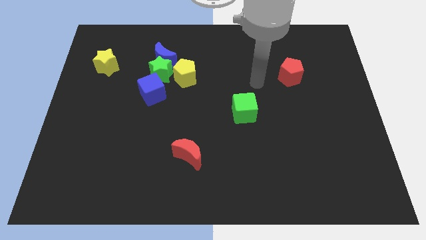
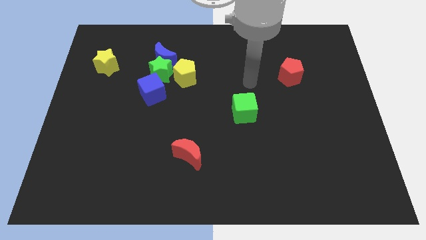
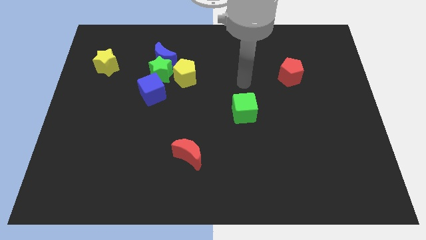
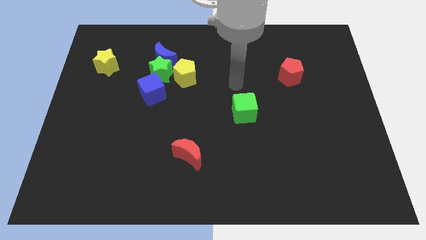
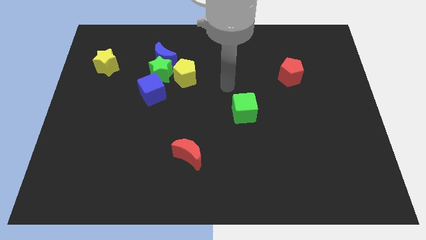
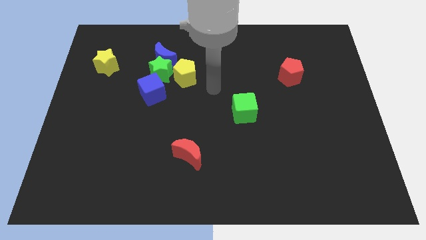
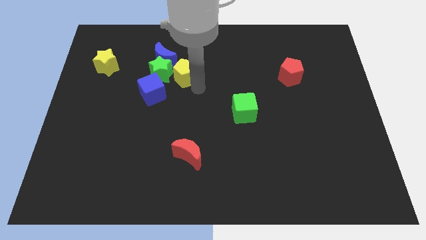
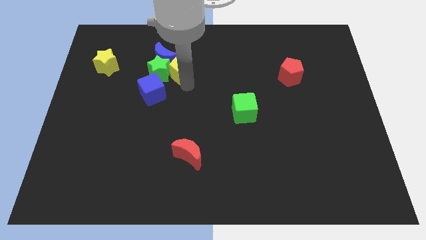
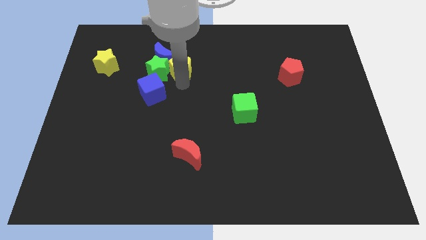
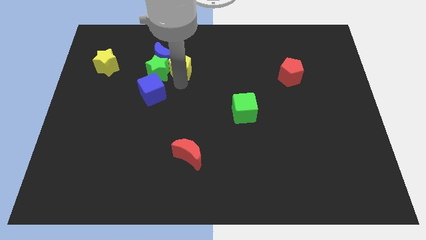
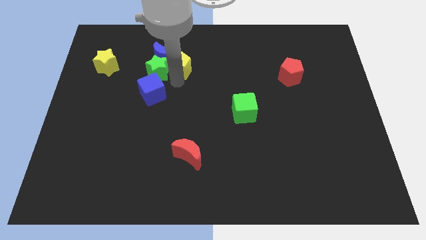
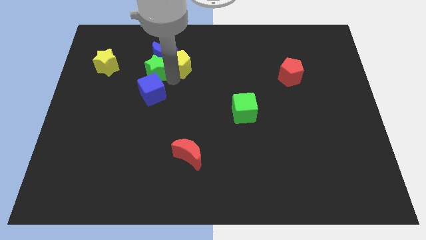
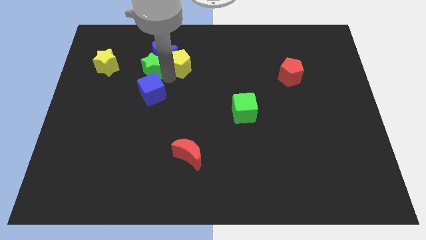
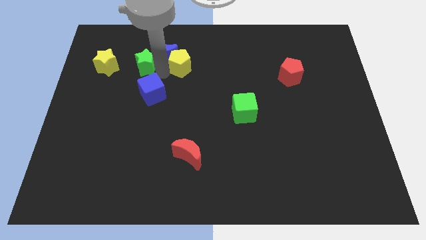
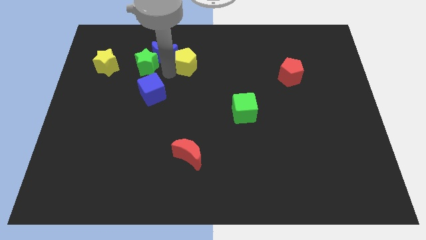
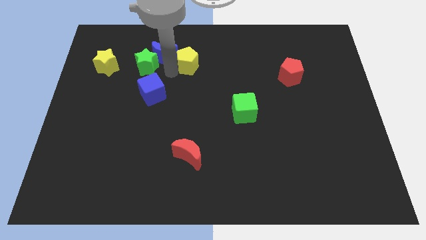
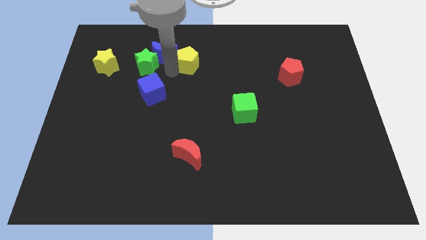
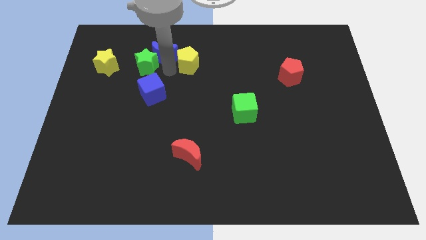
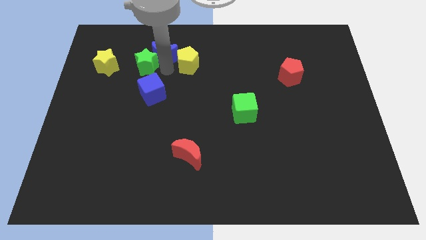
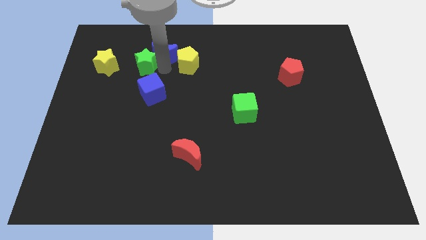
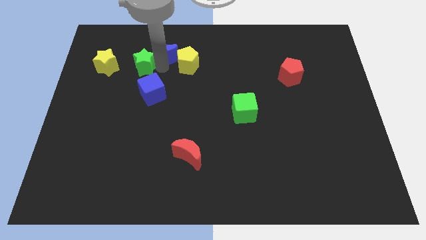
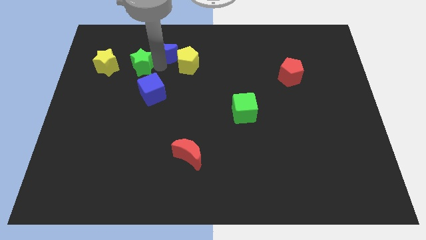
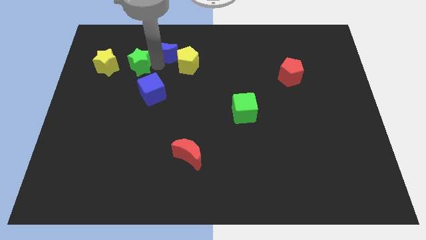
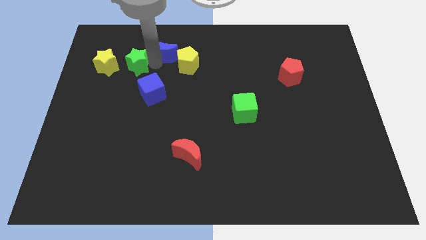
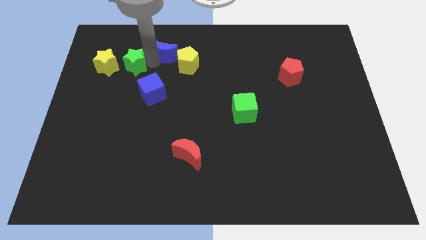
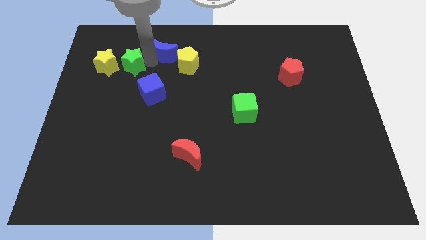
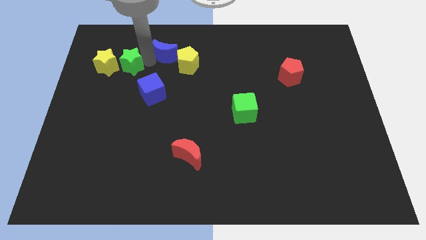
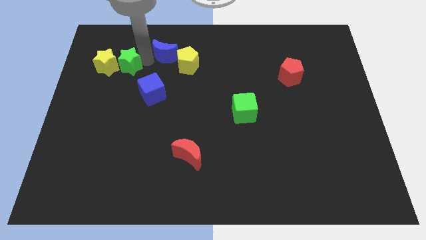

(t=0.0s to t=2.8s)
move the green star away from the blue moon, yellow pentagon, and blue cube

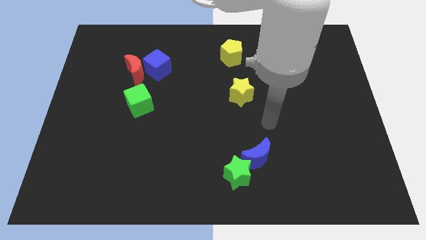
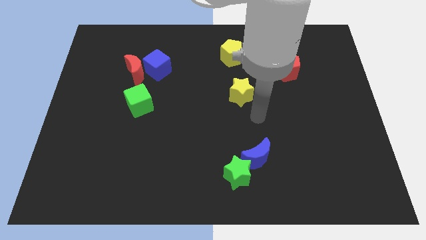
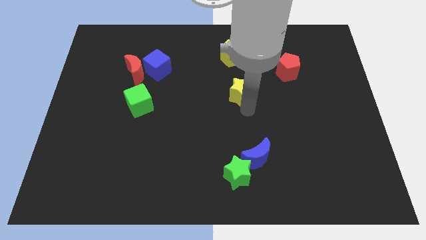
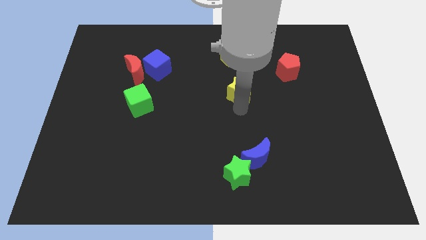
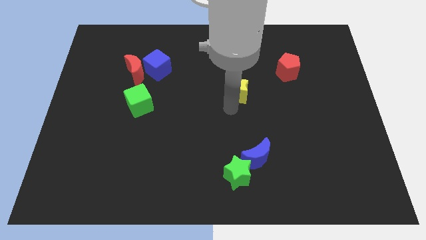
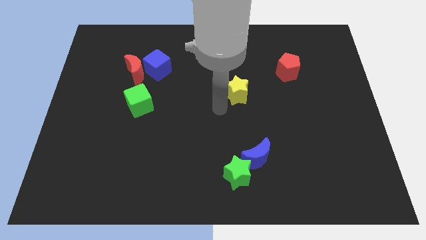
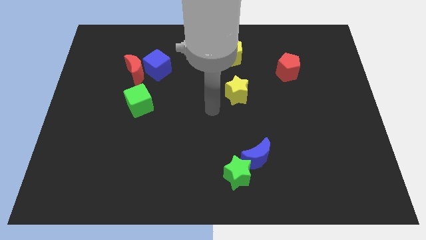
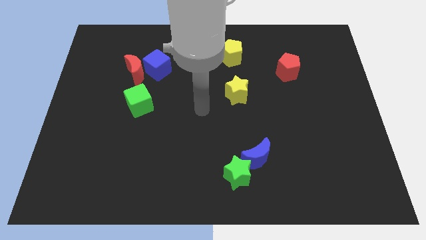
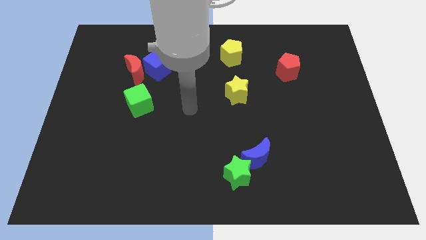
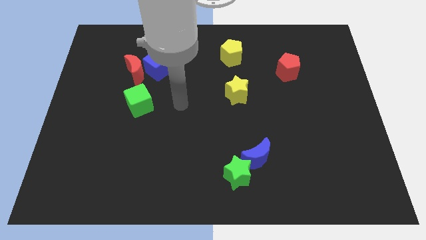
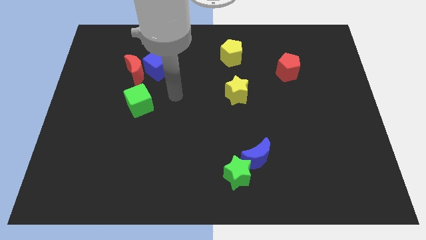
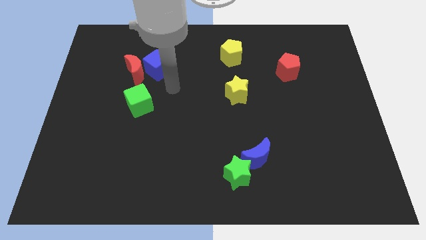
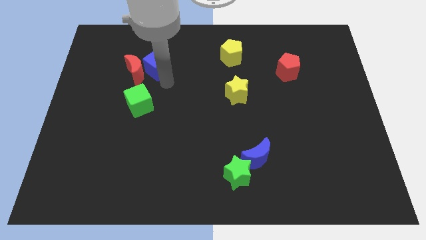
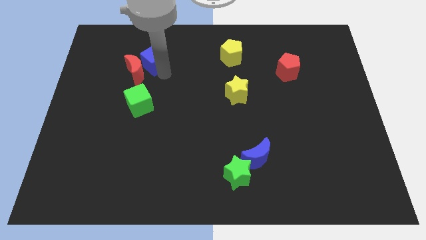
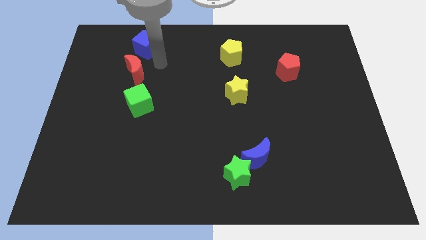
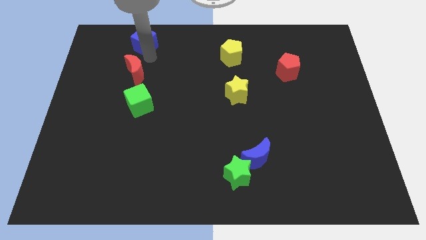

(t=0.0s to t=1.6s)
pull the red moon apart from the blue cube

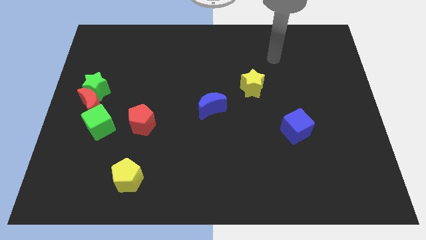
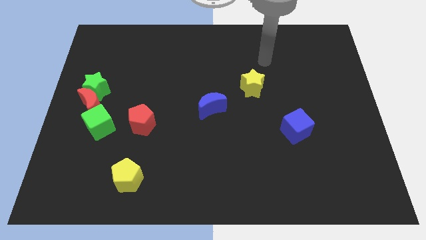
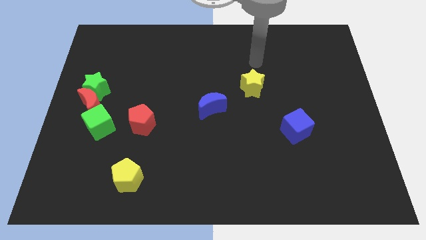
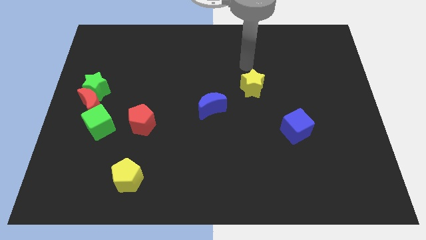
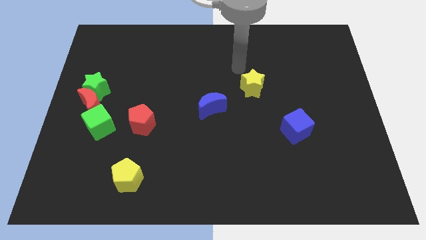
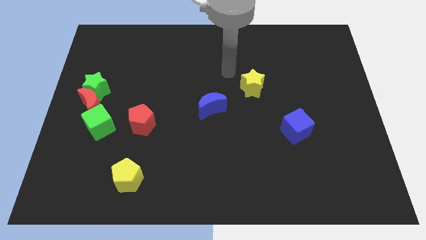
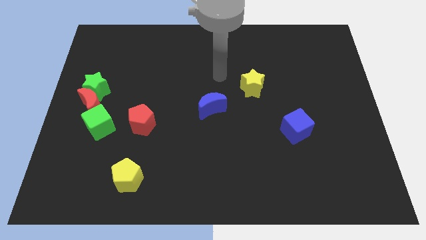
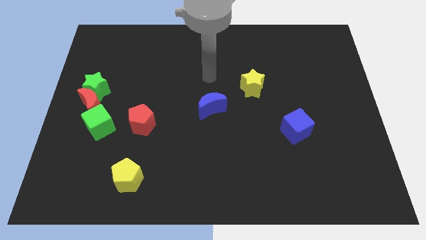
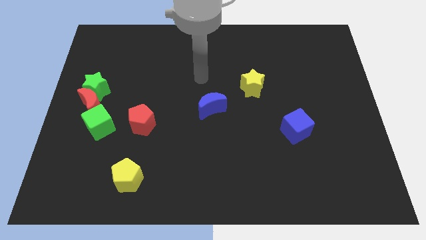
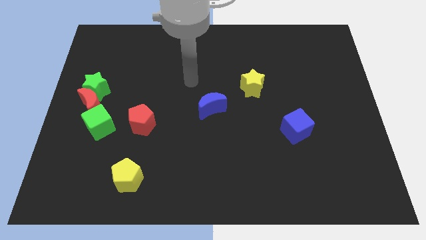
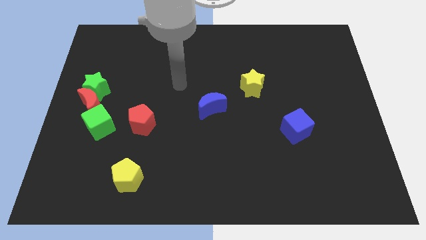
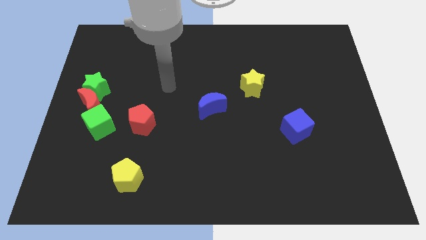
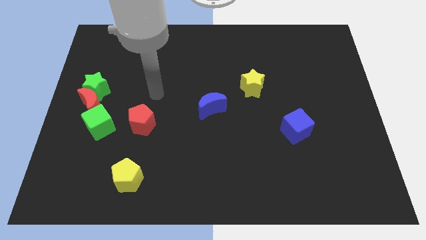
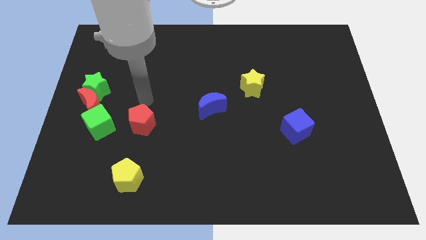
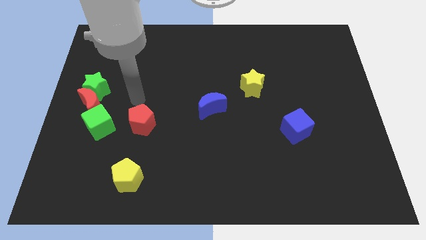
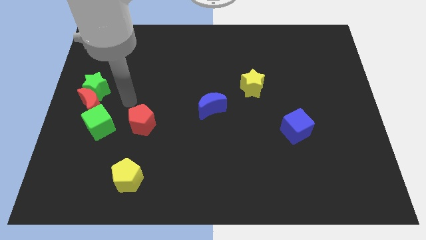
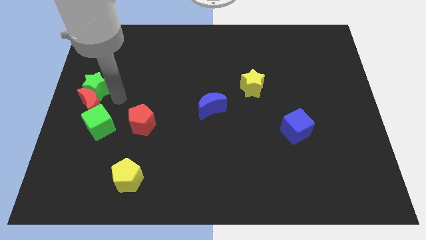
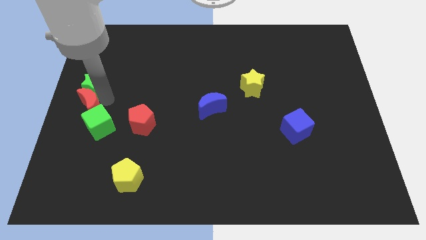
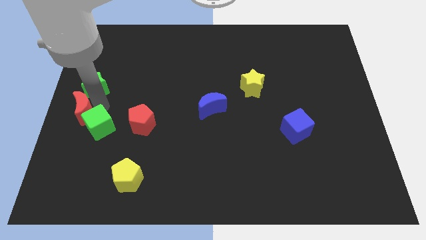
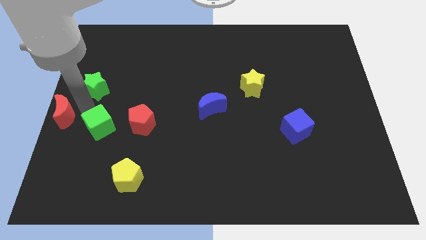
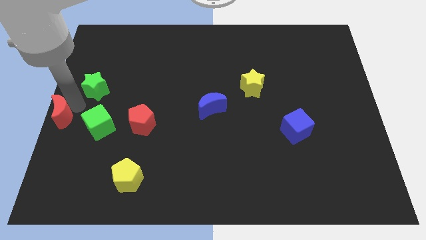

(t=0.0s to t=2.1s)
separate the green star from the red moon

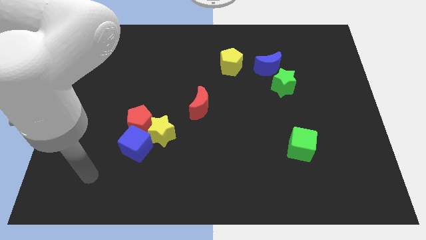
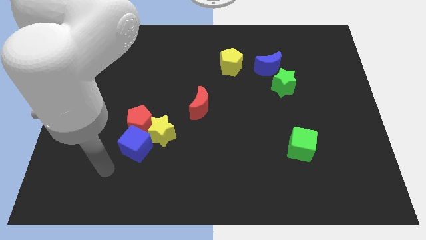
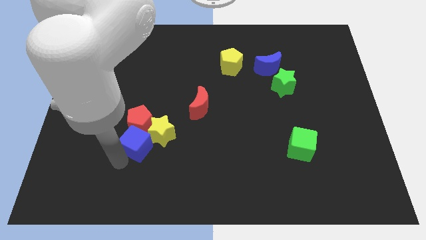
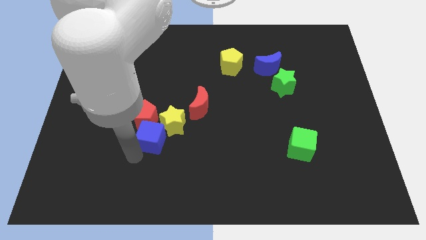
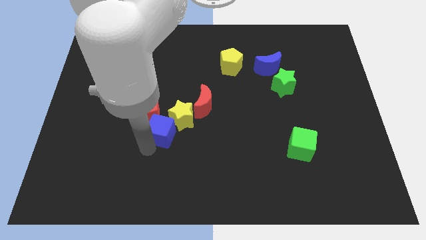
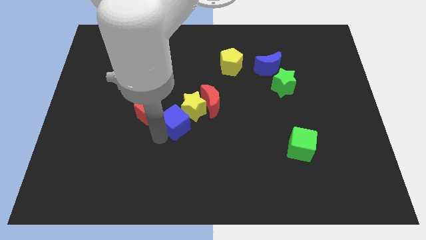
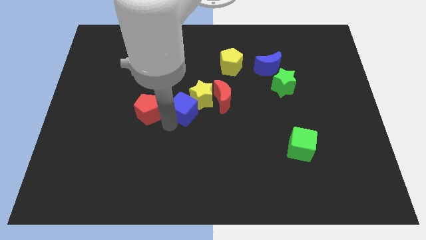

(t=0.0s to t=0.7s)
separate the red pentagon from the blue cube and yellow star

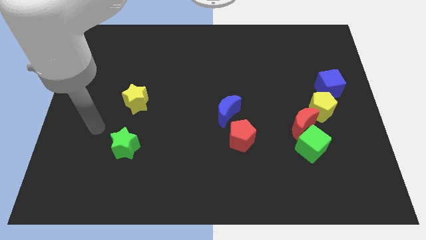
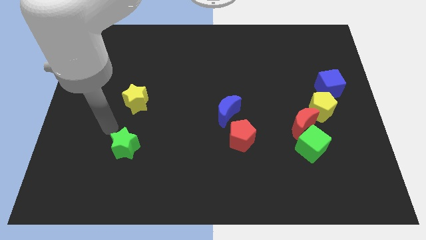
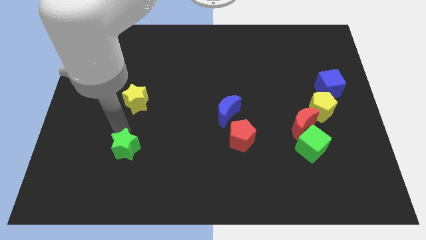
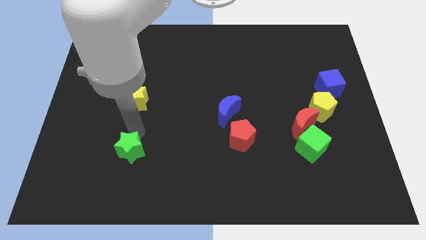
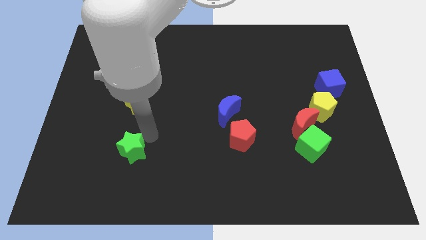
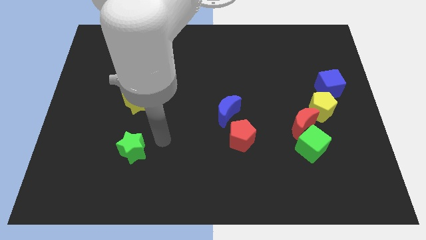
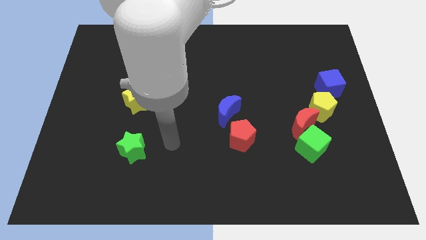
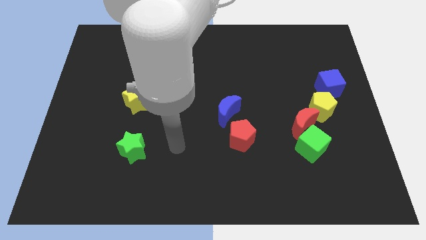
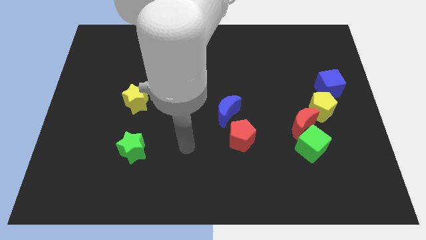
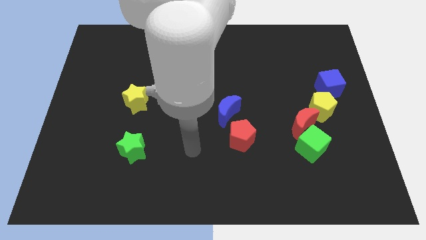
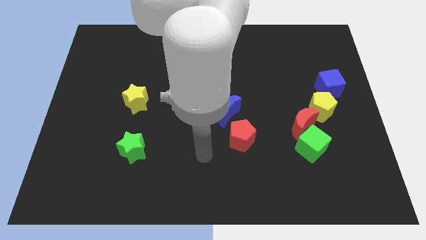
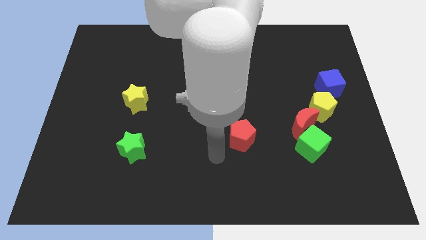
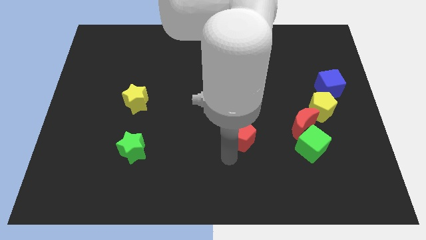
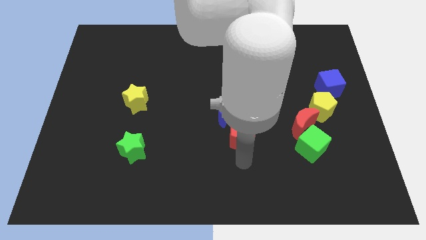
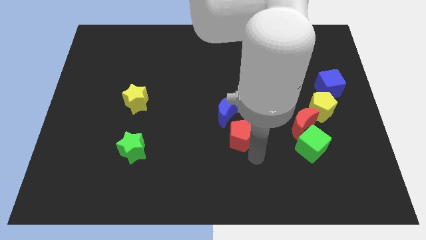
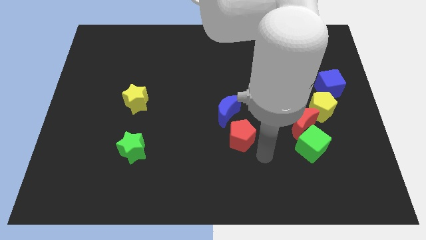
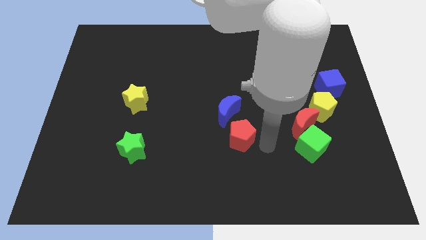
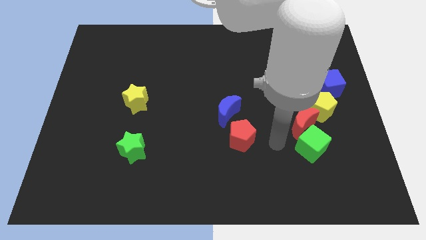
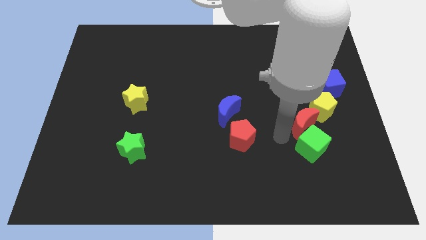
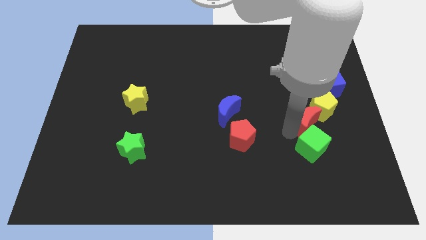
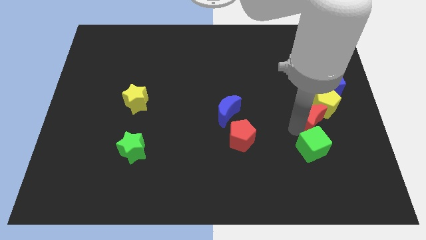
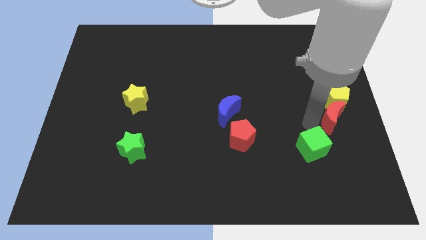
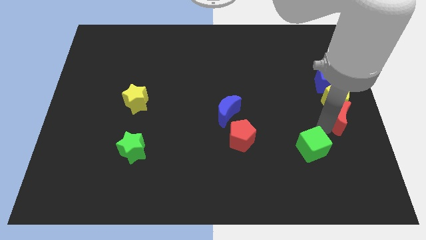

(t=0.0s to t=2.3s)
move the green cube away from the red moon
